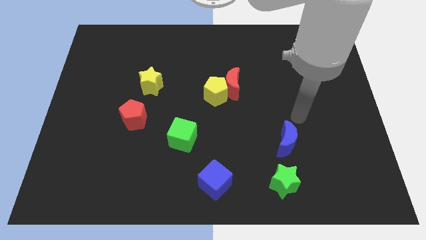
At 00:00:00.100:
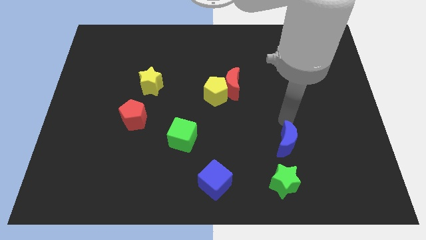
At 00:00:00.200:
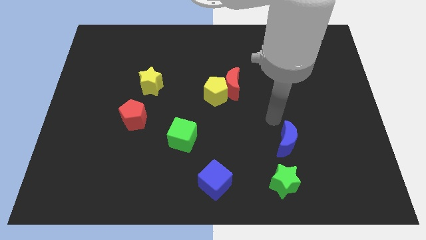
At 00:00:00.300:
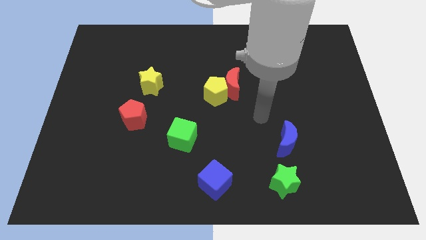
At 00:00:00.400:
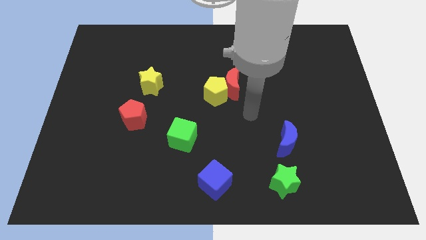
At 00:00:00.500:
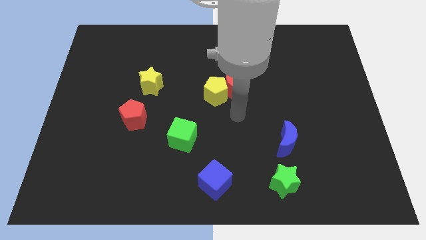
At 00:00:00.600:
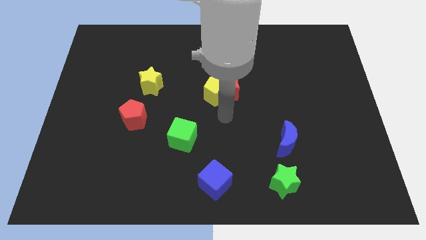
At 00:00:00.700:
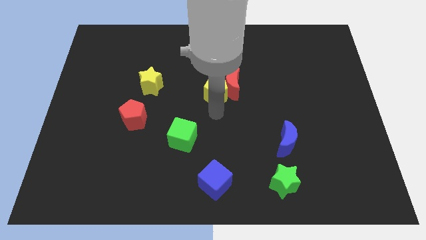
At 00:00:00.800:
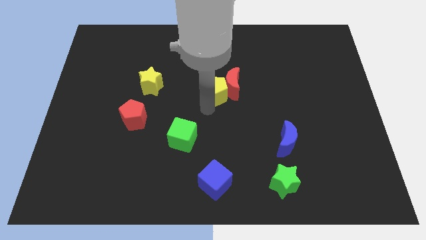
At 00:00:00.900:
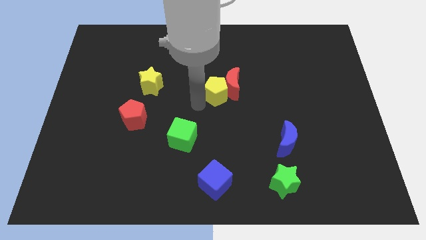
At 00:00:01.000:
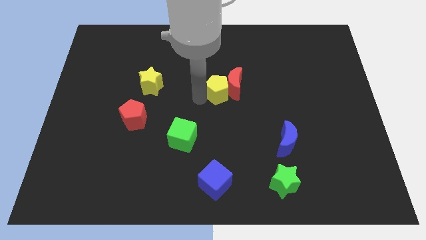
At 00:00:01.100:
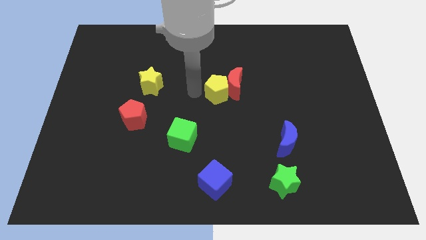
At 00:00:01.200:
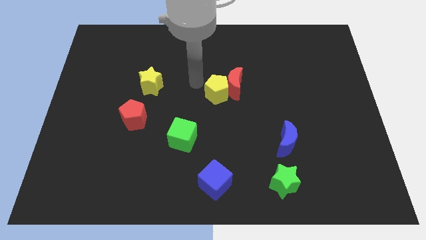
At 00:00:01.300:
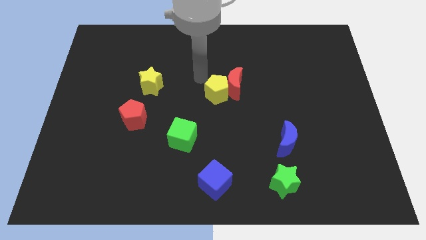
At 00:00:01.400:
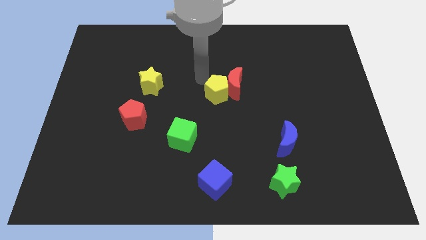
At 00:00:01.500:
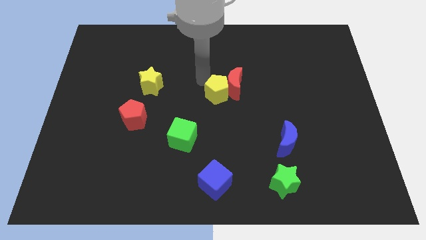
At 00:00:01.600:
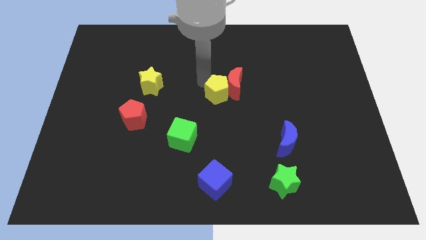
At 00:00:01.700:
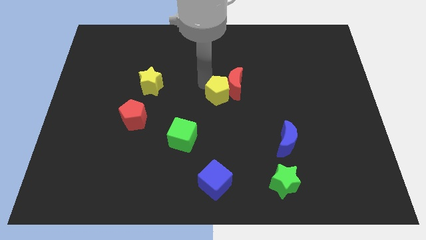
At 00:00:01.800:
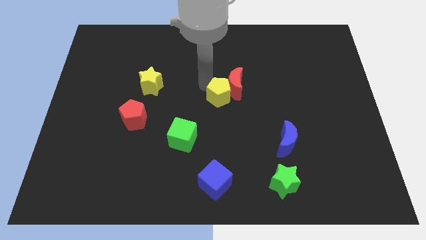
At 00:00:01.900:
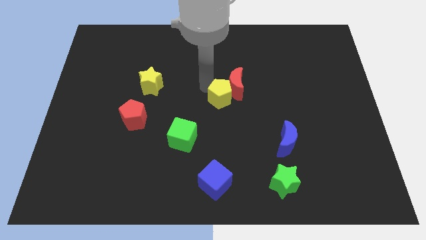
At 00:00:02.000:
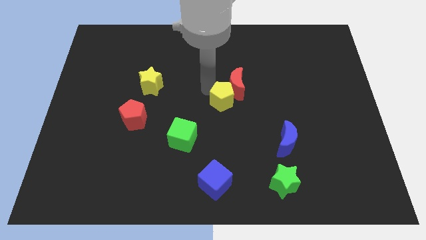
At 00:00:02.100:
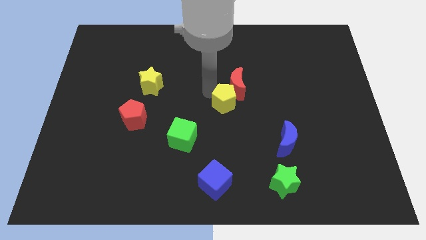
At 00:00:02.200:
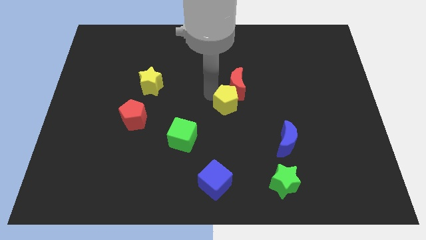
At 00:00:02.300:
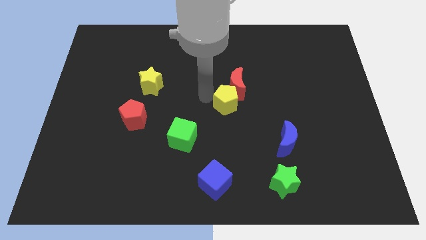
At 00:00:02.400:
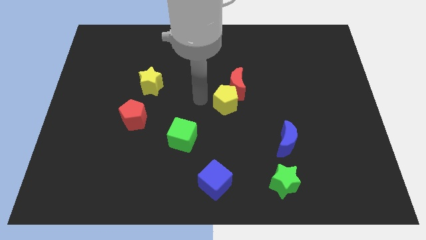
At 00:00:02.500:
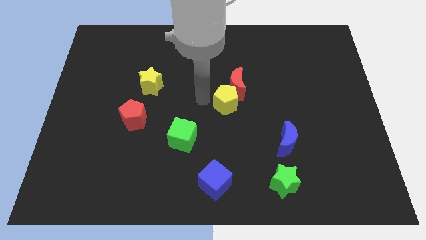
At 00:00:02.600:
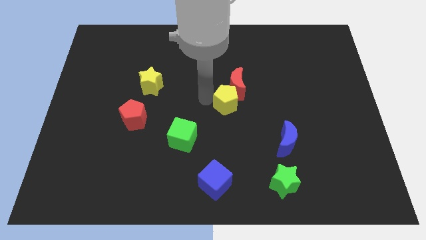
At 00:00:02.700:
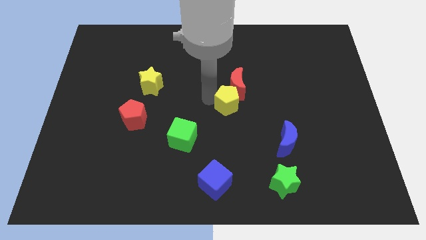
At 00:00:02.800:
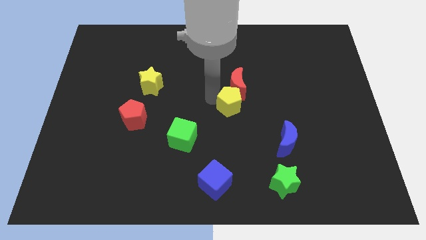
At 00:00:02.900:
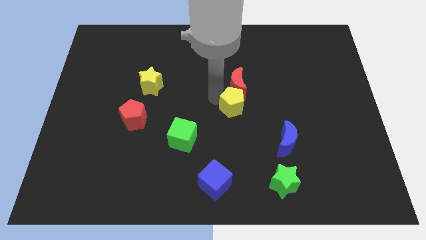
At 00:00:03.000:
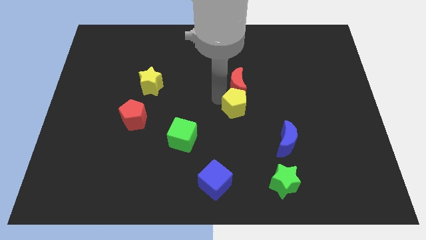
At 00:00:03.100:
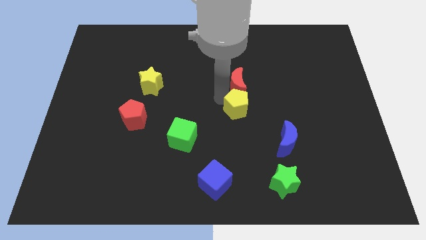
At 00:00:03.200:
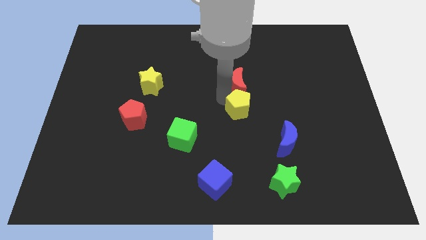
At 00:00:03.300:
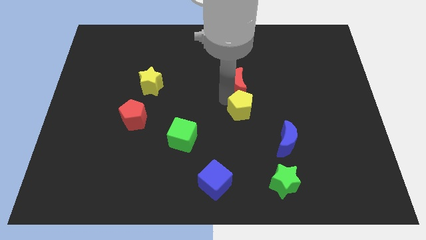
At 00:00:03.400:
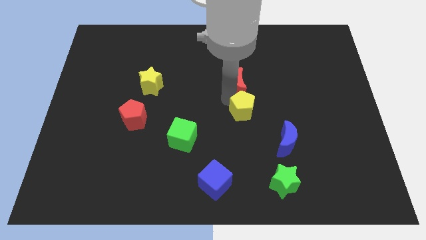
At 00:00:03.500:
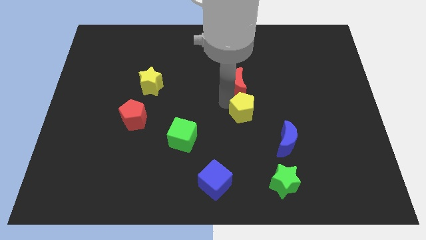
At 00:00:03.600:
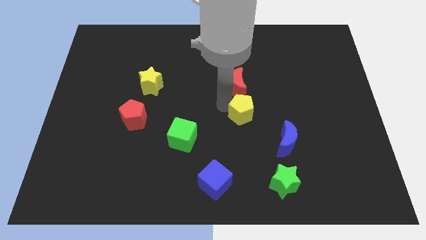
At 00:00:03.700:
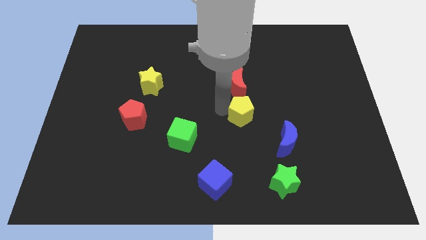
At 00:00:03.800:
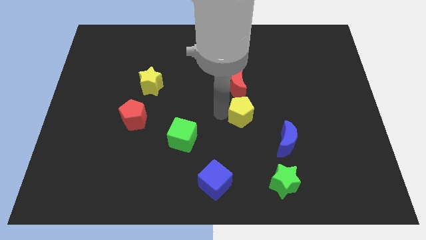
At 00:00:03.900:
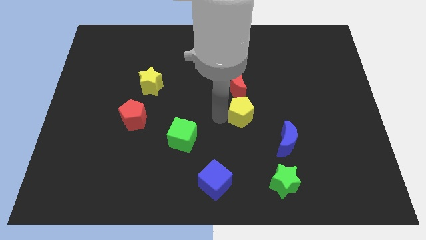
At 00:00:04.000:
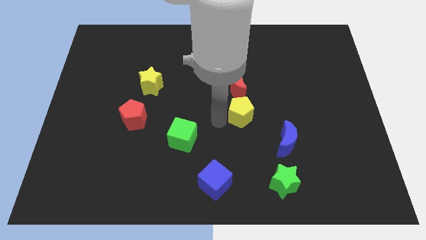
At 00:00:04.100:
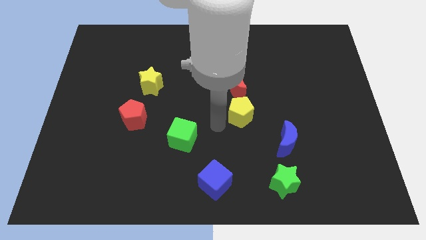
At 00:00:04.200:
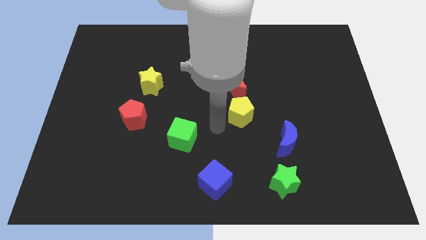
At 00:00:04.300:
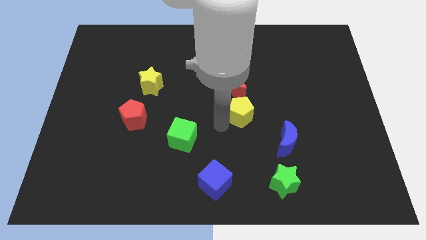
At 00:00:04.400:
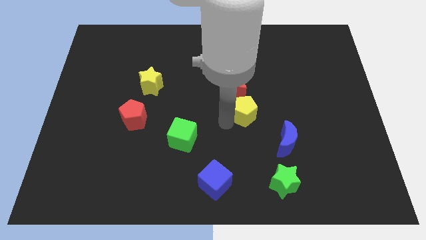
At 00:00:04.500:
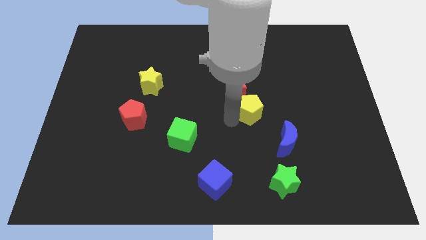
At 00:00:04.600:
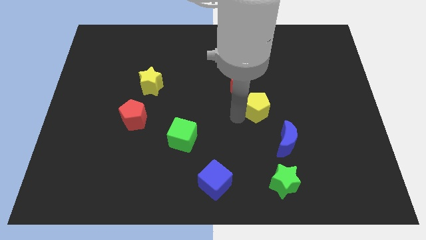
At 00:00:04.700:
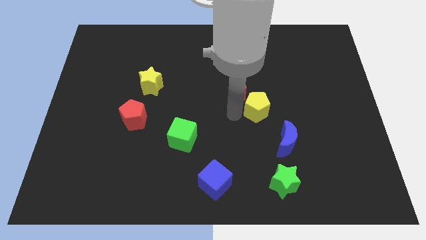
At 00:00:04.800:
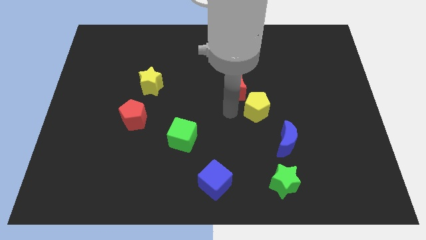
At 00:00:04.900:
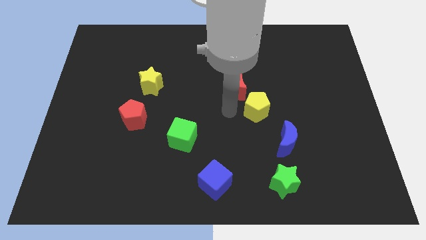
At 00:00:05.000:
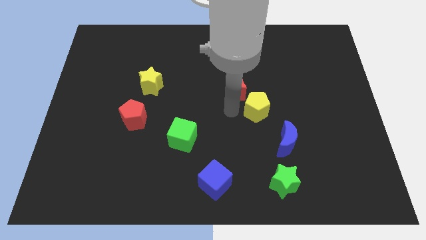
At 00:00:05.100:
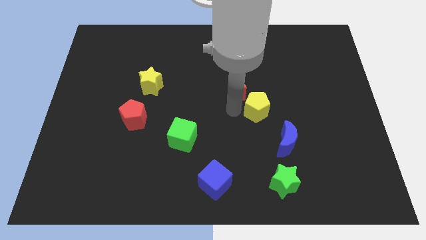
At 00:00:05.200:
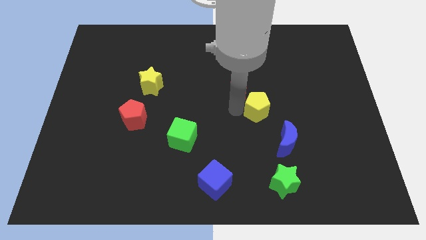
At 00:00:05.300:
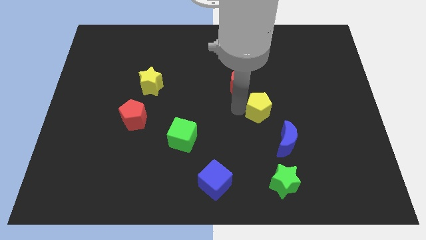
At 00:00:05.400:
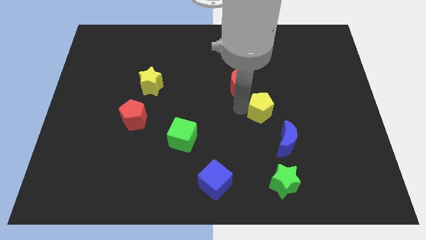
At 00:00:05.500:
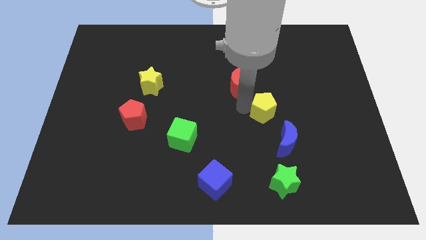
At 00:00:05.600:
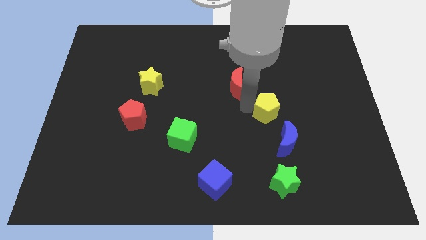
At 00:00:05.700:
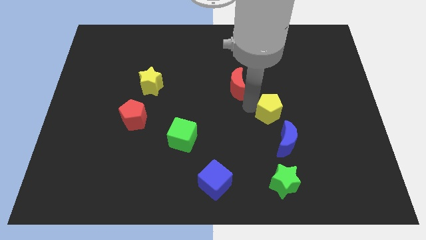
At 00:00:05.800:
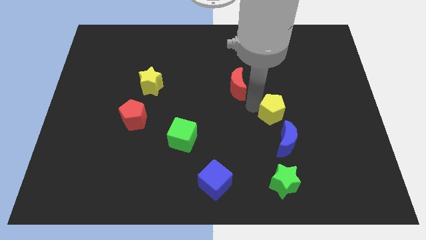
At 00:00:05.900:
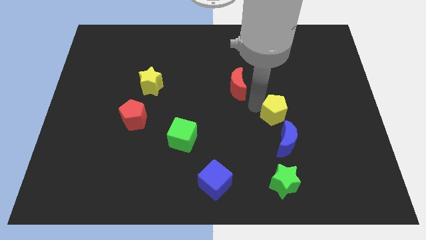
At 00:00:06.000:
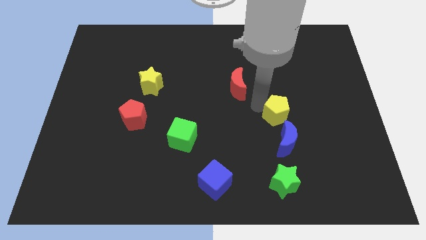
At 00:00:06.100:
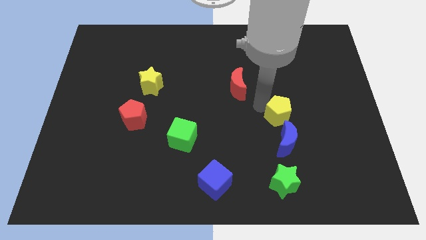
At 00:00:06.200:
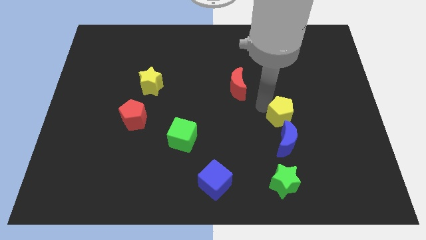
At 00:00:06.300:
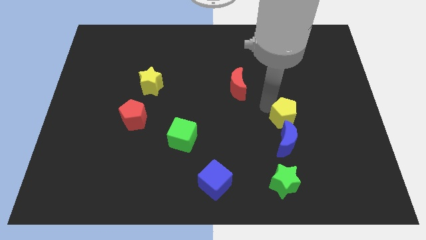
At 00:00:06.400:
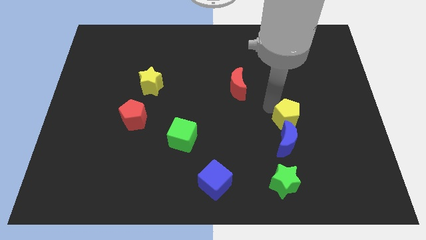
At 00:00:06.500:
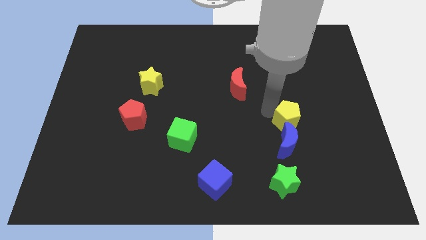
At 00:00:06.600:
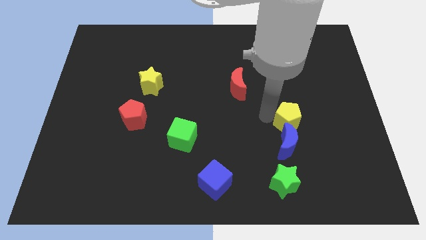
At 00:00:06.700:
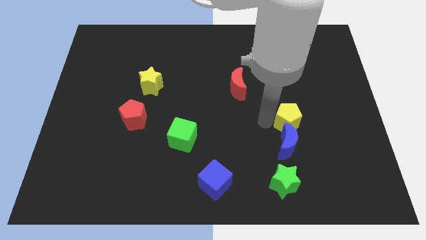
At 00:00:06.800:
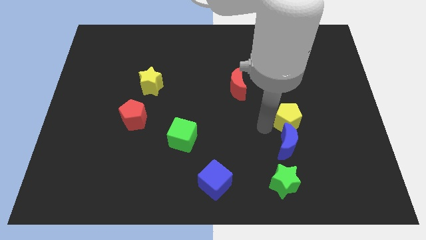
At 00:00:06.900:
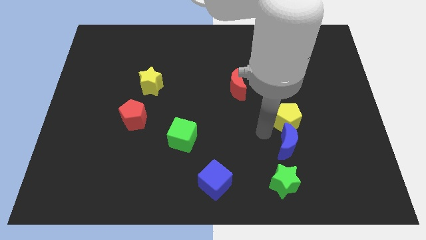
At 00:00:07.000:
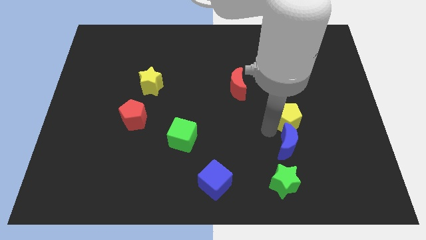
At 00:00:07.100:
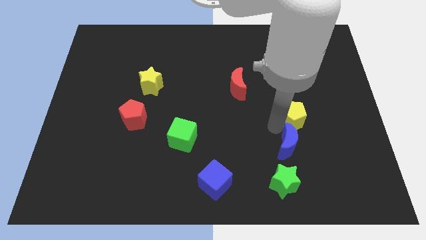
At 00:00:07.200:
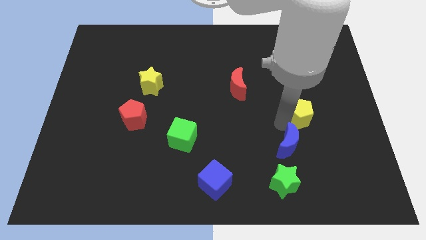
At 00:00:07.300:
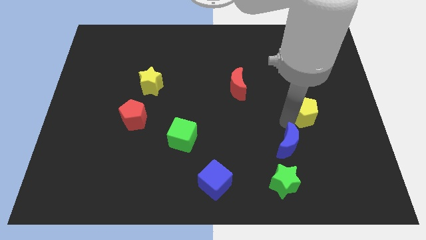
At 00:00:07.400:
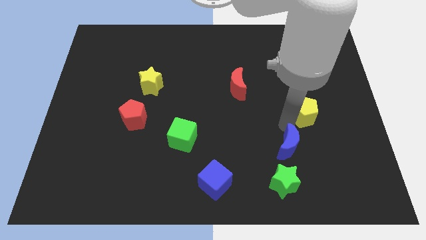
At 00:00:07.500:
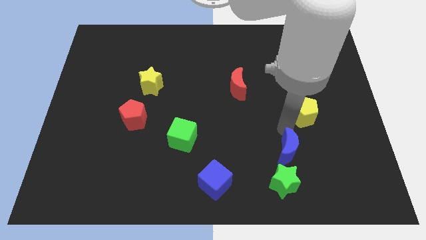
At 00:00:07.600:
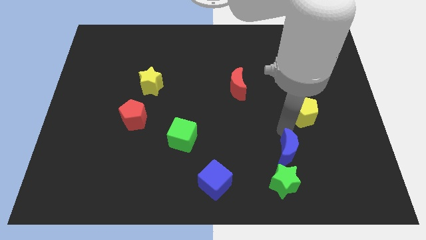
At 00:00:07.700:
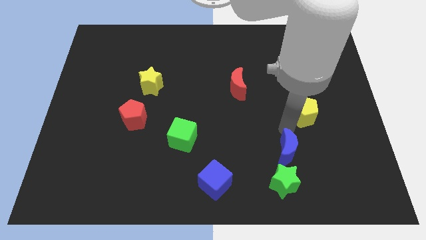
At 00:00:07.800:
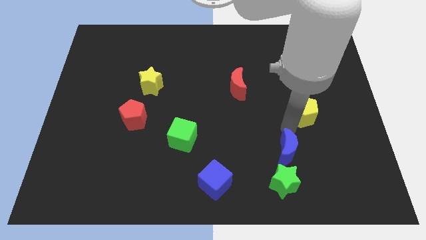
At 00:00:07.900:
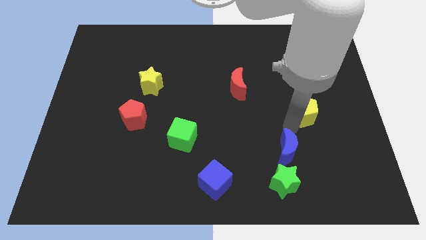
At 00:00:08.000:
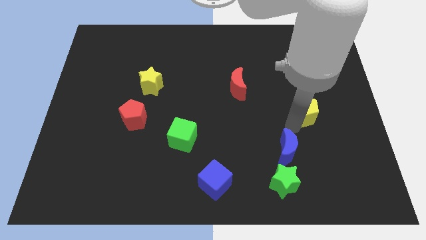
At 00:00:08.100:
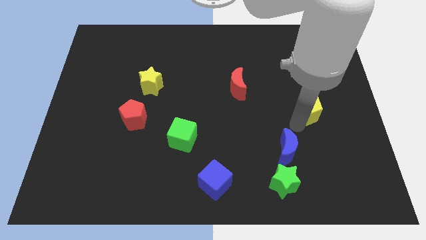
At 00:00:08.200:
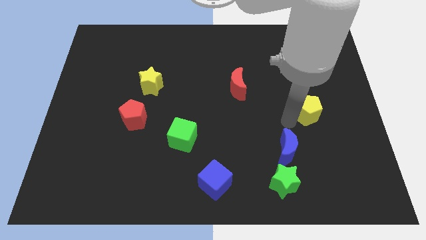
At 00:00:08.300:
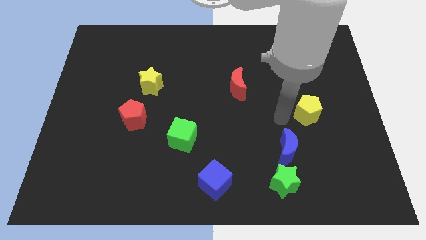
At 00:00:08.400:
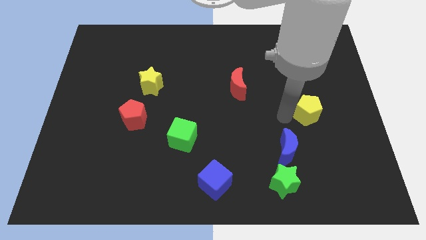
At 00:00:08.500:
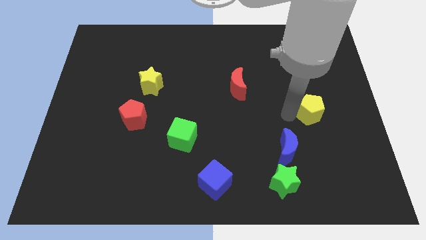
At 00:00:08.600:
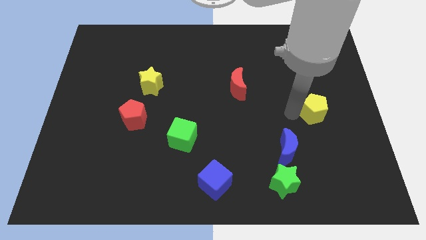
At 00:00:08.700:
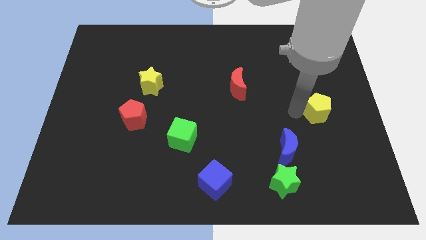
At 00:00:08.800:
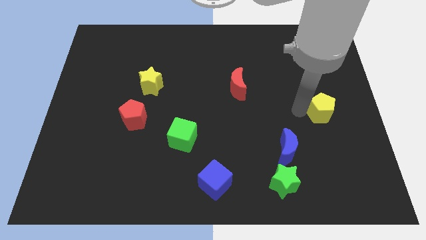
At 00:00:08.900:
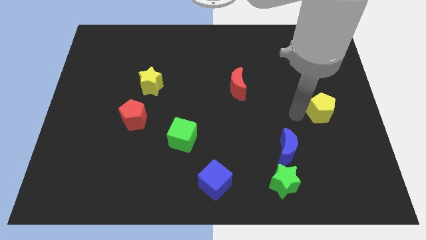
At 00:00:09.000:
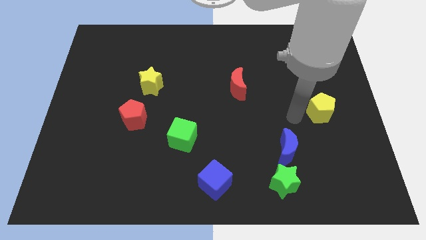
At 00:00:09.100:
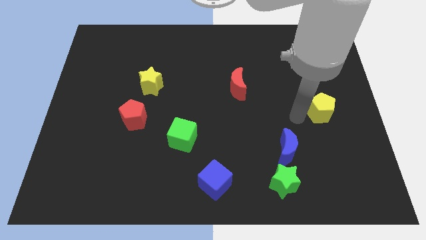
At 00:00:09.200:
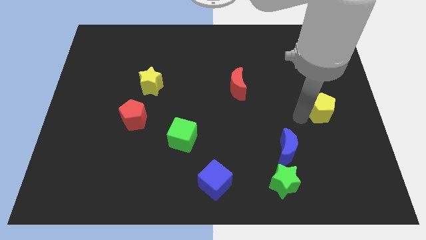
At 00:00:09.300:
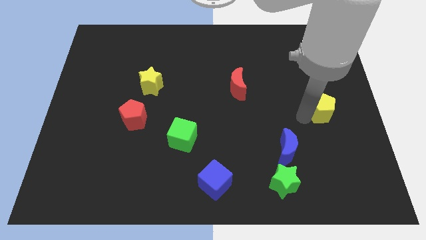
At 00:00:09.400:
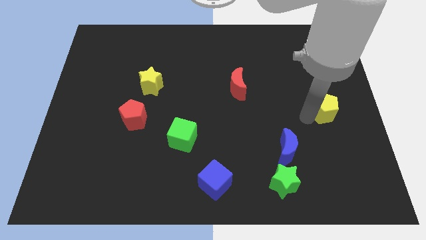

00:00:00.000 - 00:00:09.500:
push the yellow pentagon to the right side
